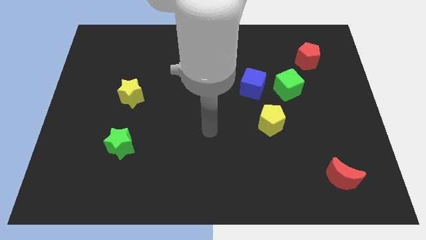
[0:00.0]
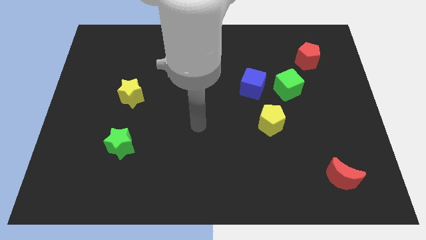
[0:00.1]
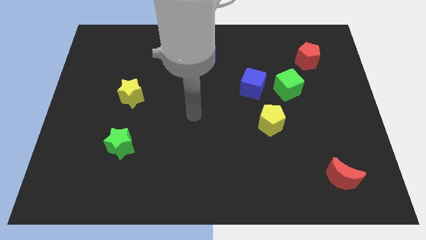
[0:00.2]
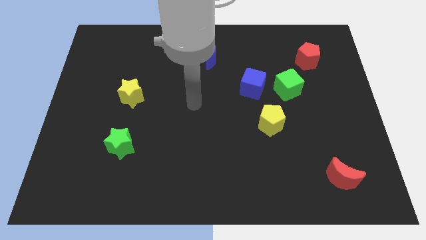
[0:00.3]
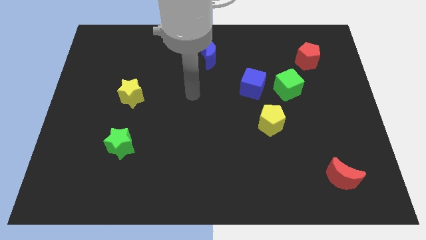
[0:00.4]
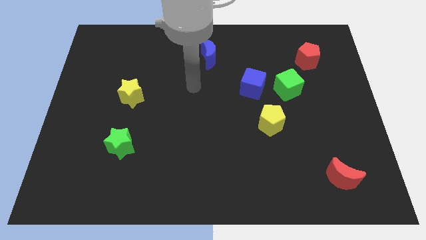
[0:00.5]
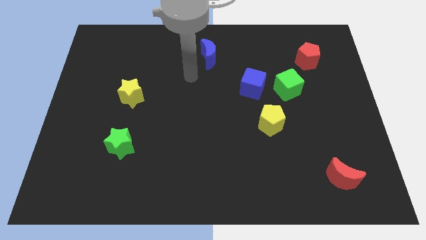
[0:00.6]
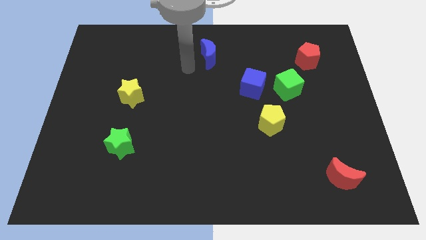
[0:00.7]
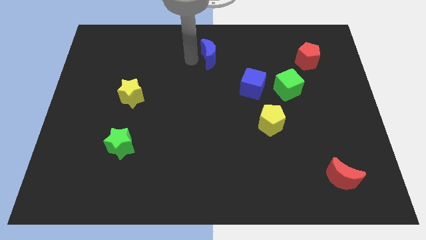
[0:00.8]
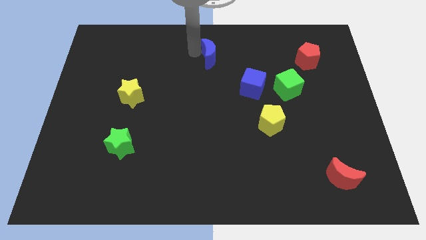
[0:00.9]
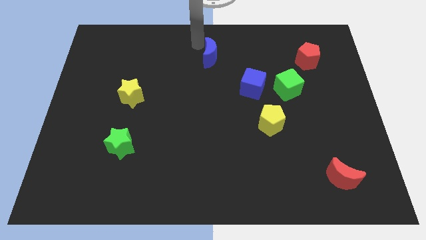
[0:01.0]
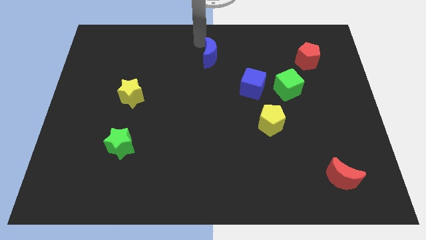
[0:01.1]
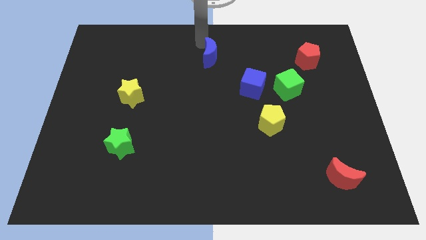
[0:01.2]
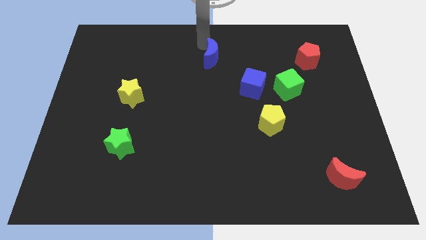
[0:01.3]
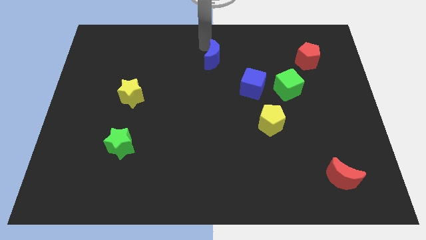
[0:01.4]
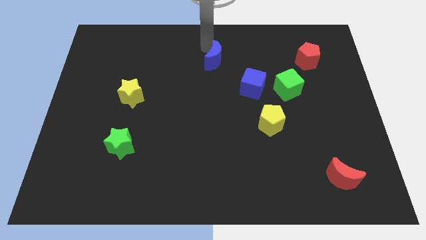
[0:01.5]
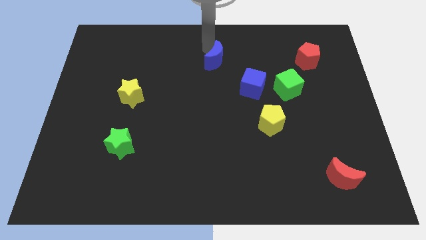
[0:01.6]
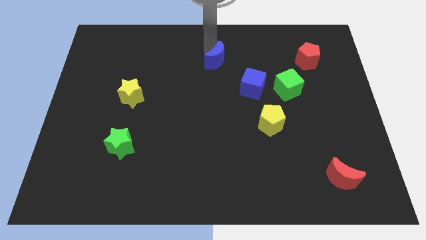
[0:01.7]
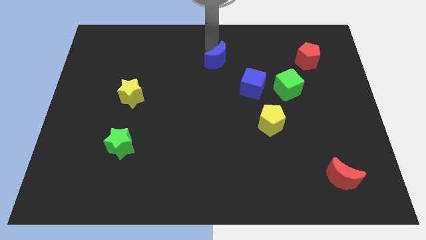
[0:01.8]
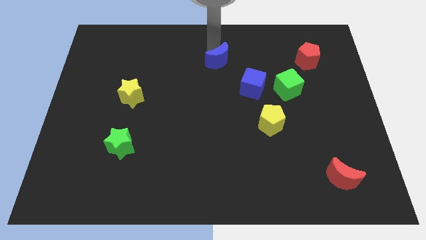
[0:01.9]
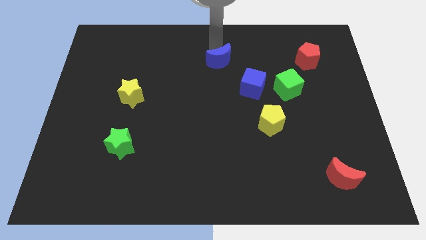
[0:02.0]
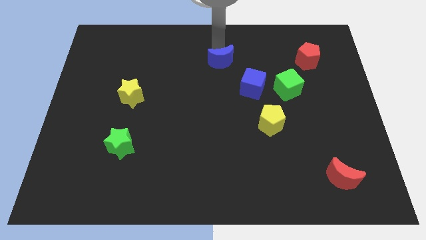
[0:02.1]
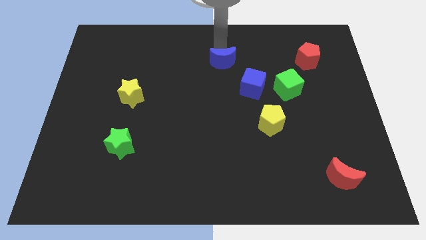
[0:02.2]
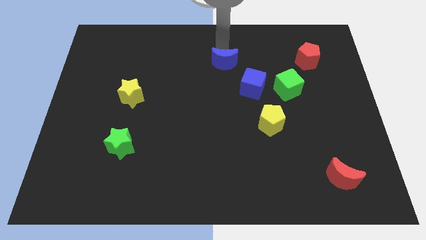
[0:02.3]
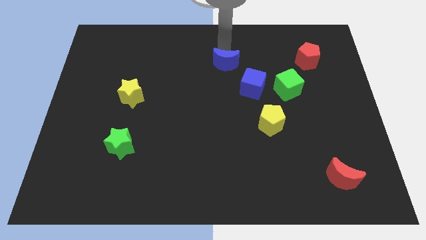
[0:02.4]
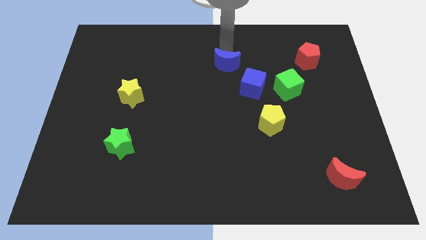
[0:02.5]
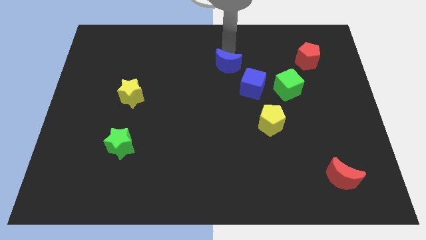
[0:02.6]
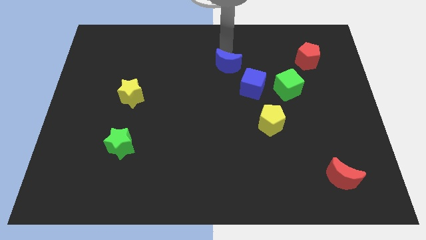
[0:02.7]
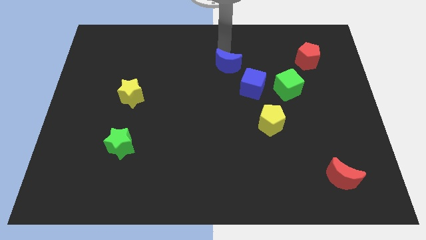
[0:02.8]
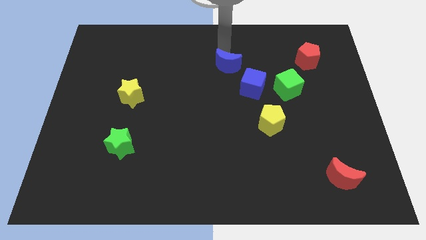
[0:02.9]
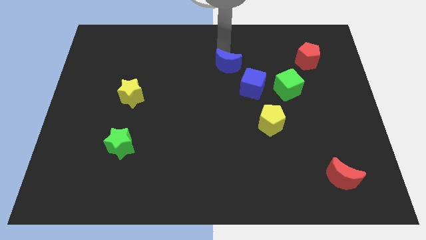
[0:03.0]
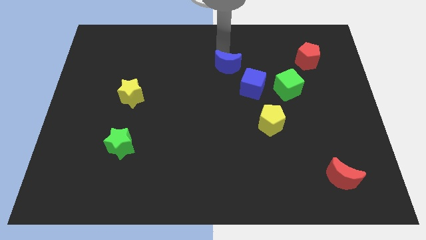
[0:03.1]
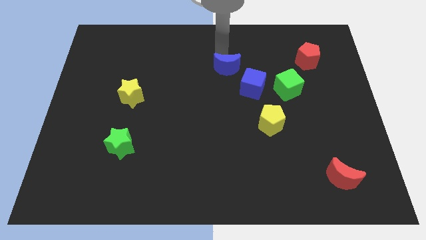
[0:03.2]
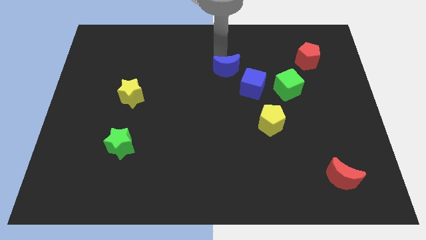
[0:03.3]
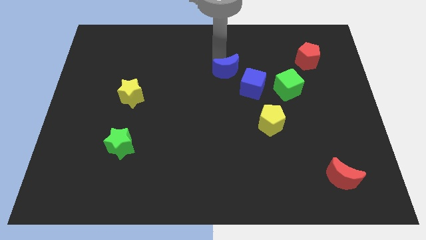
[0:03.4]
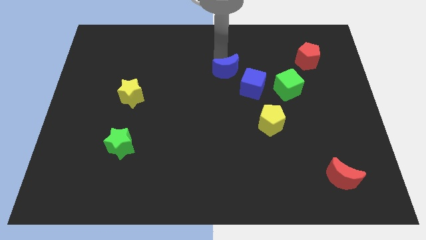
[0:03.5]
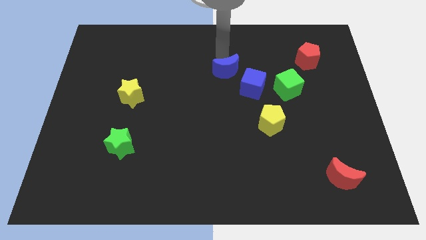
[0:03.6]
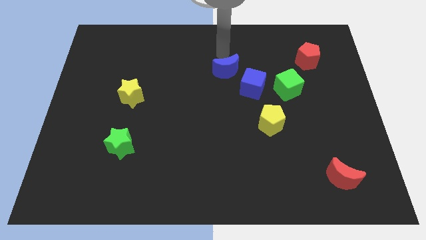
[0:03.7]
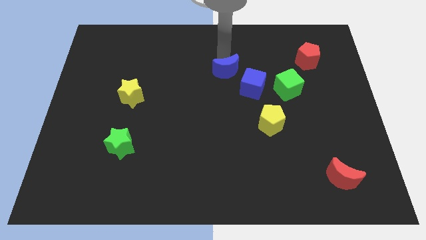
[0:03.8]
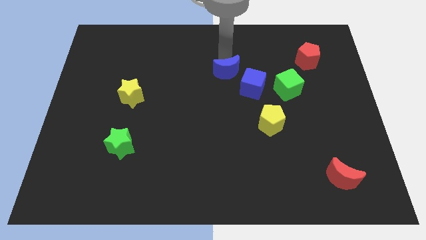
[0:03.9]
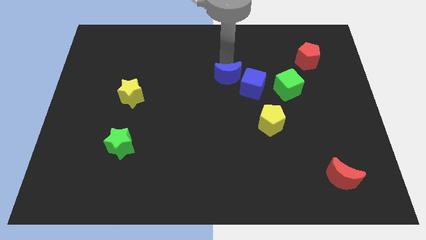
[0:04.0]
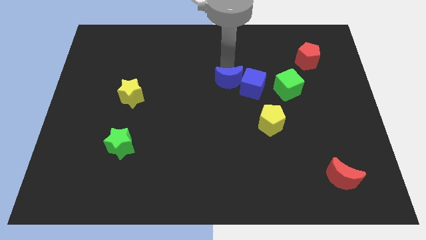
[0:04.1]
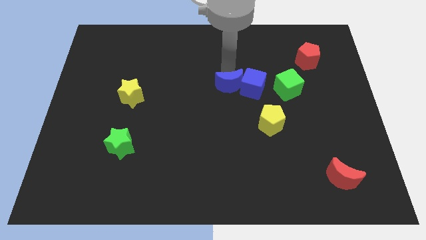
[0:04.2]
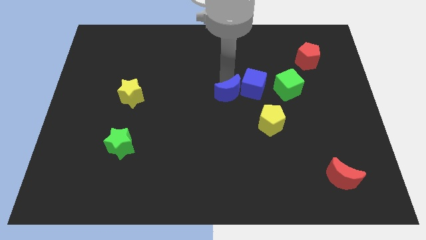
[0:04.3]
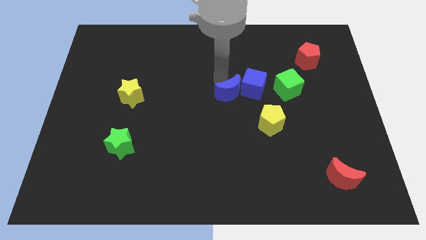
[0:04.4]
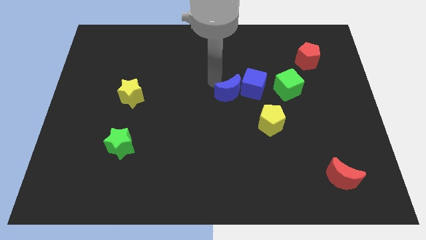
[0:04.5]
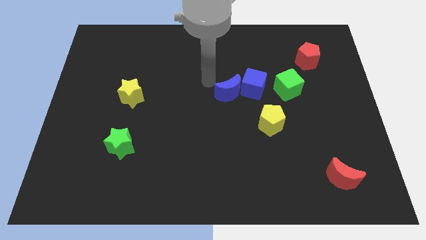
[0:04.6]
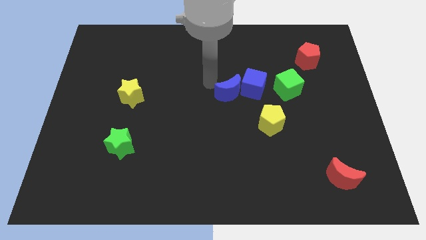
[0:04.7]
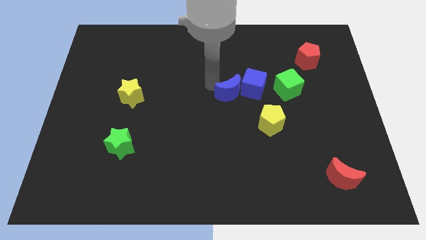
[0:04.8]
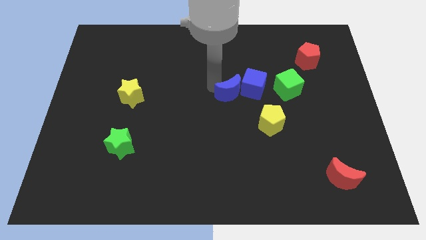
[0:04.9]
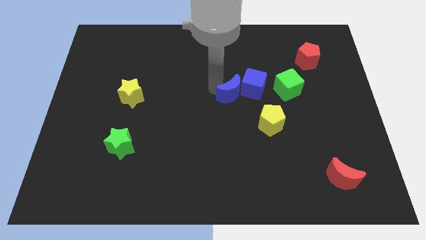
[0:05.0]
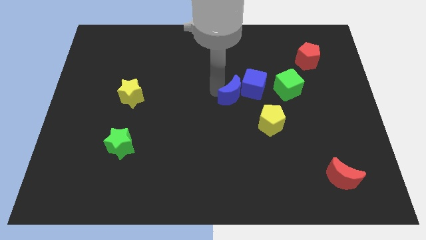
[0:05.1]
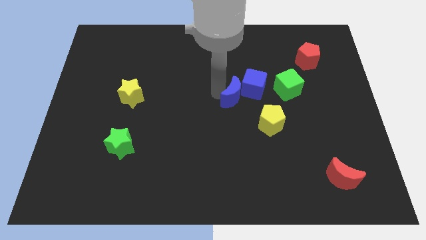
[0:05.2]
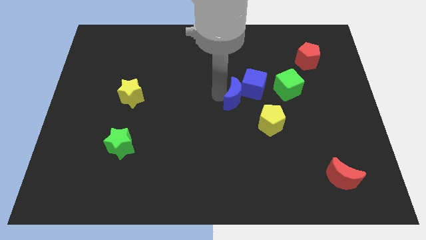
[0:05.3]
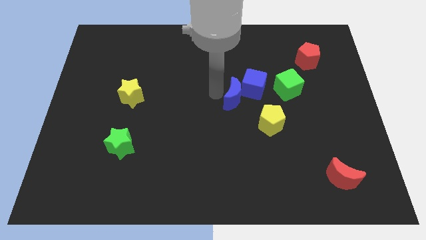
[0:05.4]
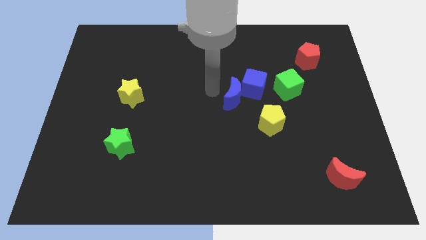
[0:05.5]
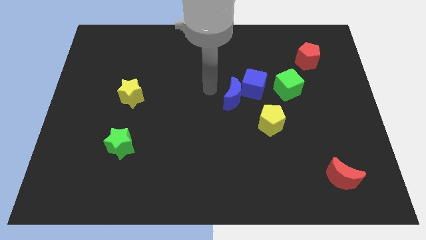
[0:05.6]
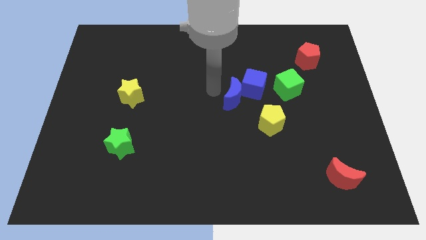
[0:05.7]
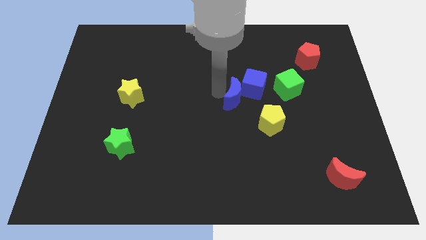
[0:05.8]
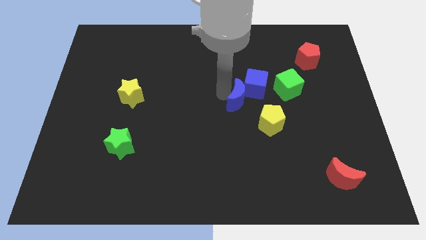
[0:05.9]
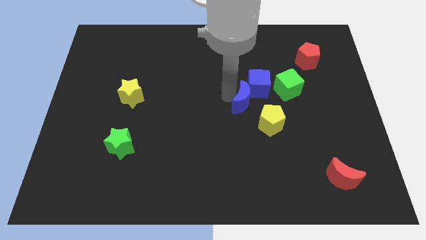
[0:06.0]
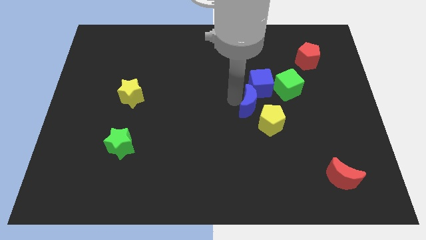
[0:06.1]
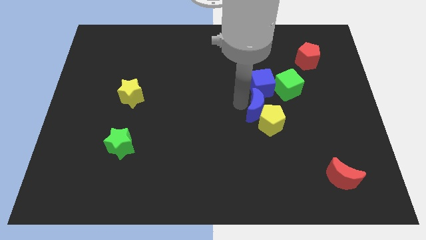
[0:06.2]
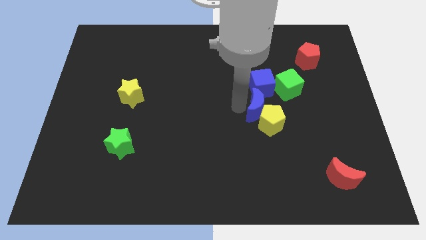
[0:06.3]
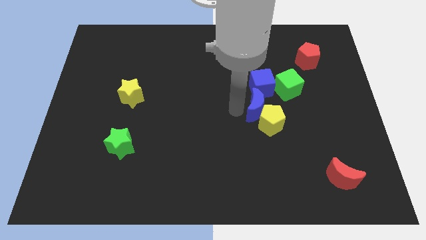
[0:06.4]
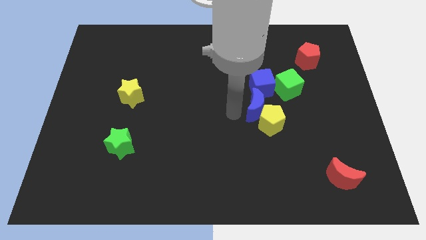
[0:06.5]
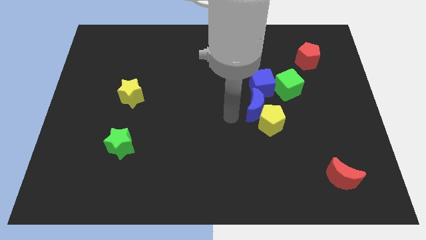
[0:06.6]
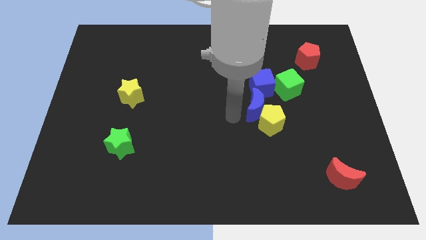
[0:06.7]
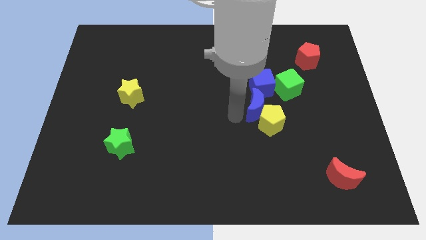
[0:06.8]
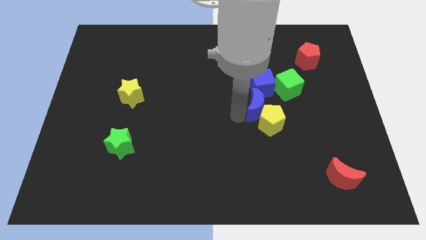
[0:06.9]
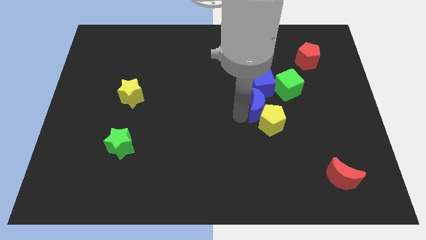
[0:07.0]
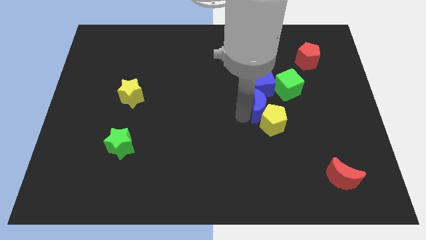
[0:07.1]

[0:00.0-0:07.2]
move the blue moon downwards and to the right

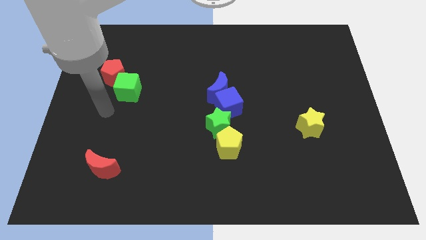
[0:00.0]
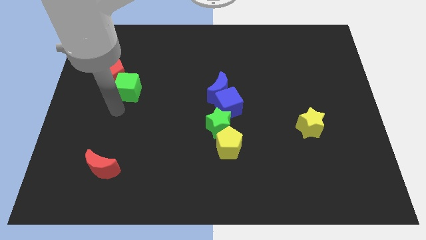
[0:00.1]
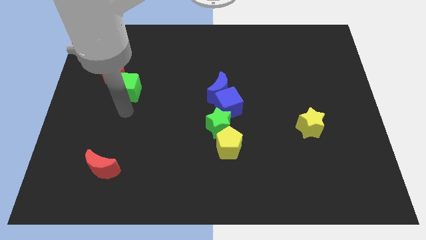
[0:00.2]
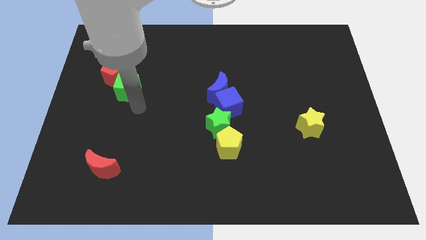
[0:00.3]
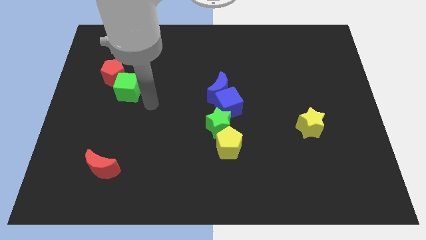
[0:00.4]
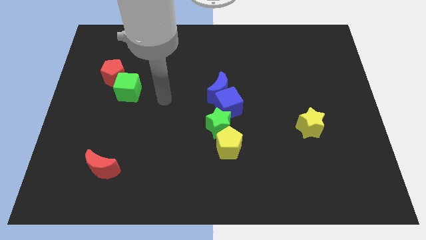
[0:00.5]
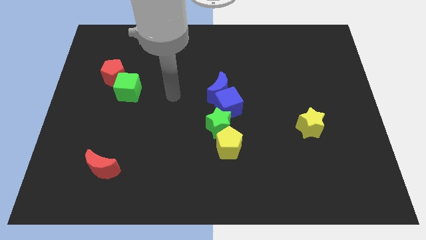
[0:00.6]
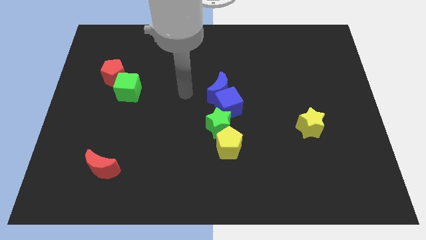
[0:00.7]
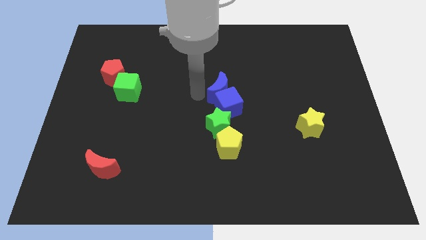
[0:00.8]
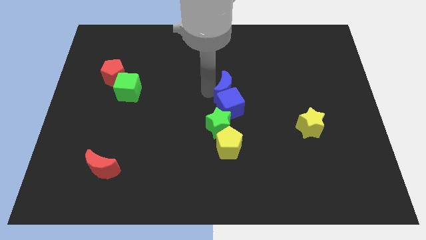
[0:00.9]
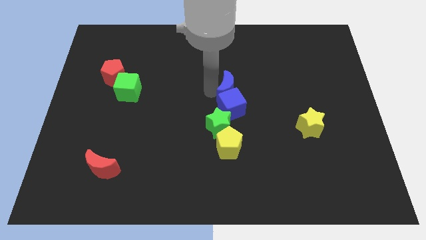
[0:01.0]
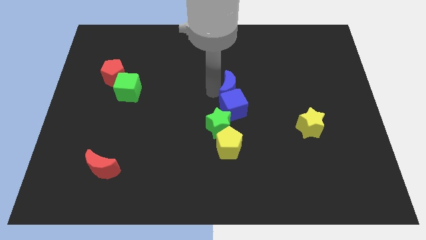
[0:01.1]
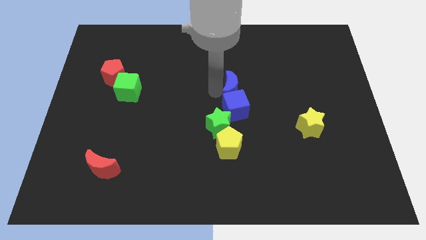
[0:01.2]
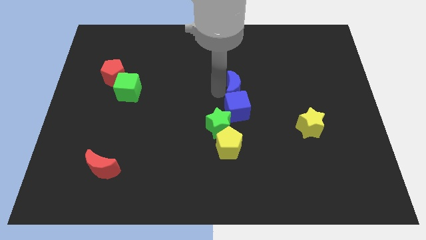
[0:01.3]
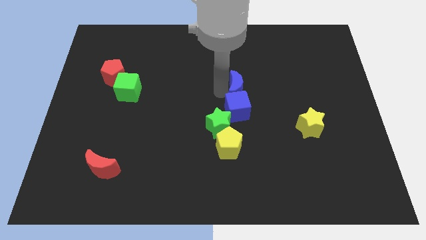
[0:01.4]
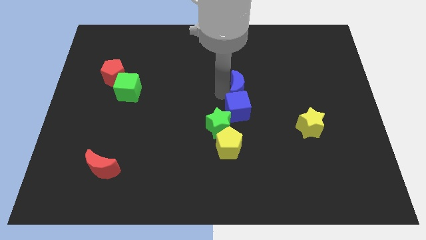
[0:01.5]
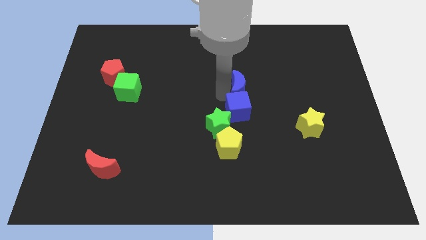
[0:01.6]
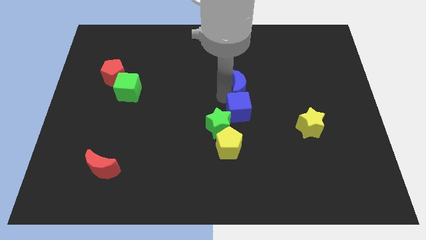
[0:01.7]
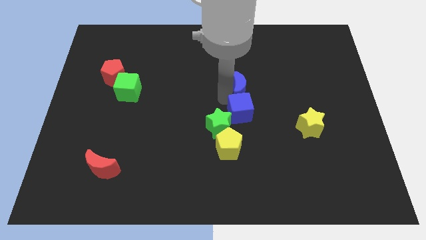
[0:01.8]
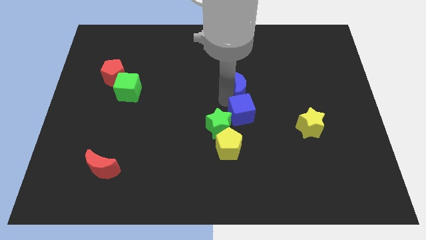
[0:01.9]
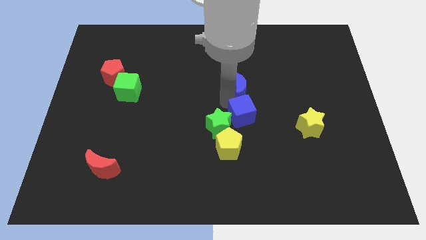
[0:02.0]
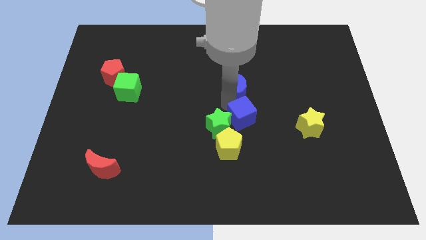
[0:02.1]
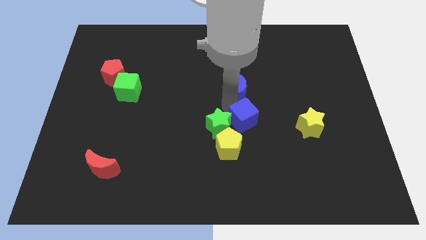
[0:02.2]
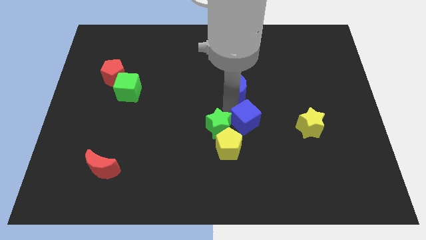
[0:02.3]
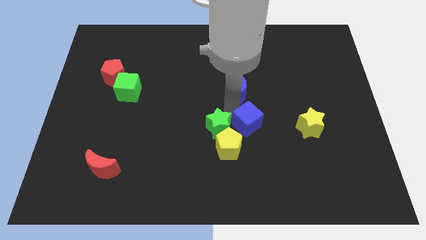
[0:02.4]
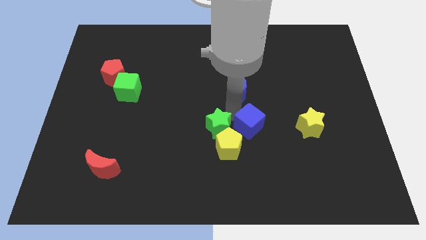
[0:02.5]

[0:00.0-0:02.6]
move the blue cube downwards and right a little
